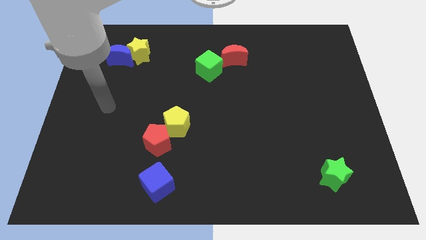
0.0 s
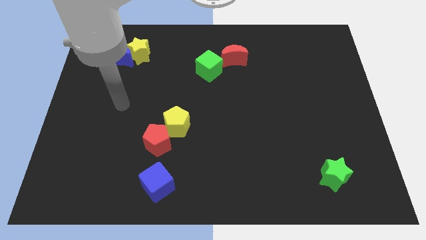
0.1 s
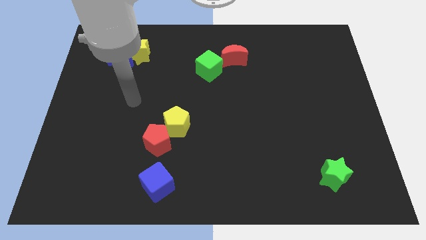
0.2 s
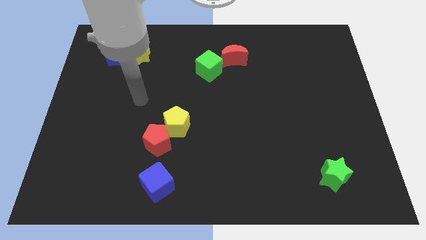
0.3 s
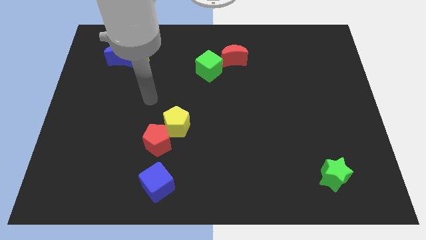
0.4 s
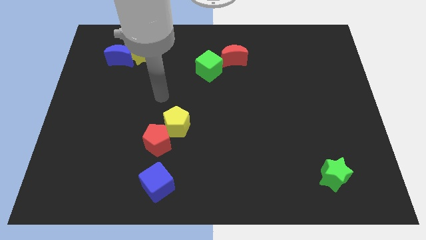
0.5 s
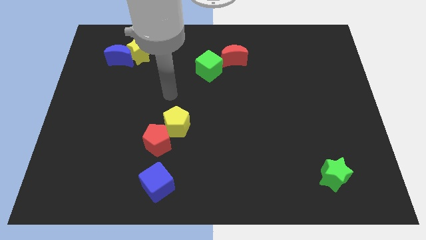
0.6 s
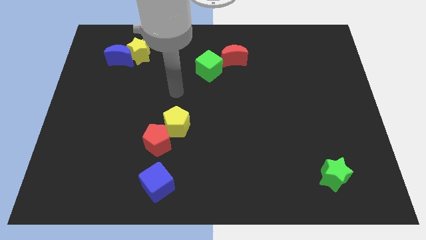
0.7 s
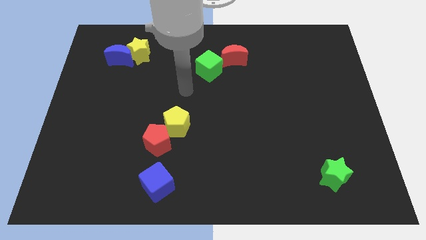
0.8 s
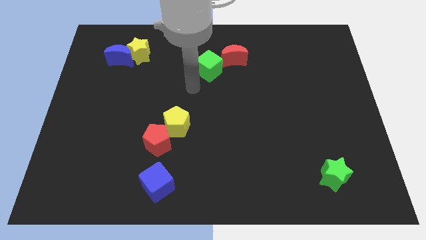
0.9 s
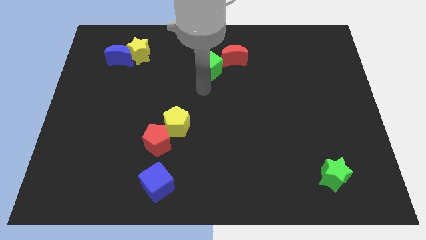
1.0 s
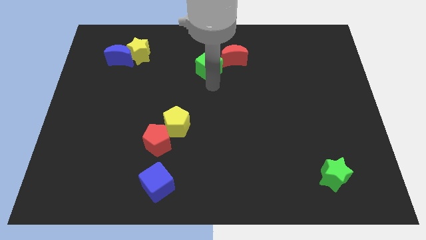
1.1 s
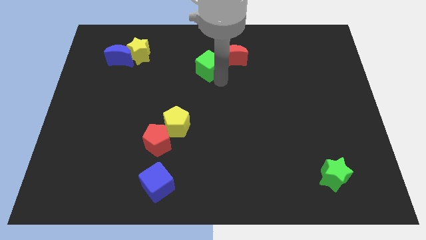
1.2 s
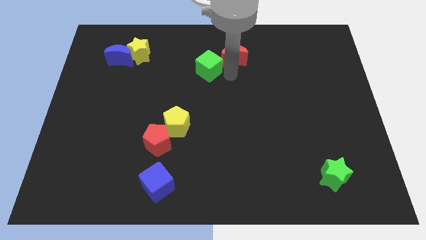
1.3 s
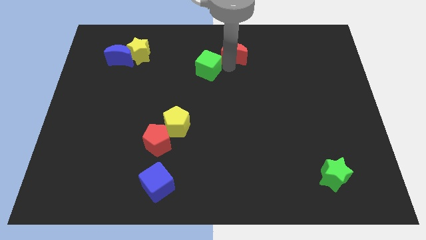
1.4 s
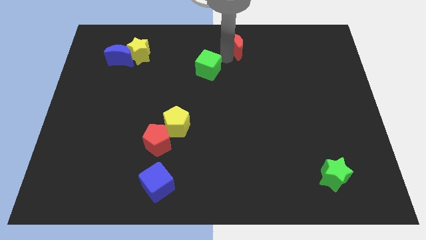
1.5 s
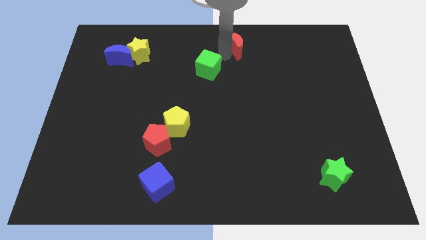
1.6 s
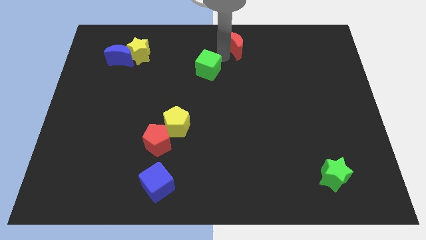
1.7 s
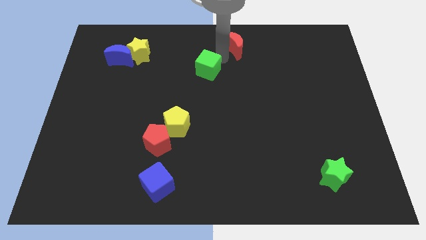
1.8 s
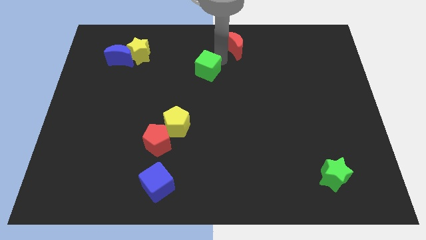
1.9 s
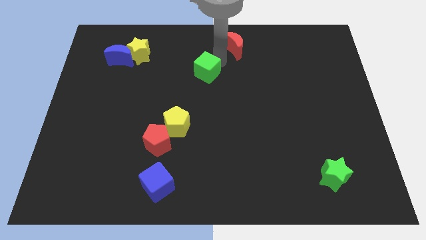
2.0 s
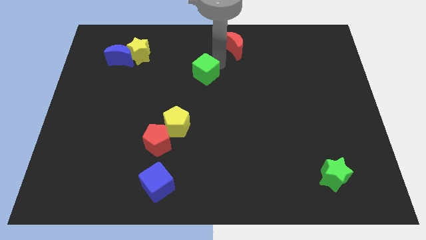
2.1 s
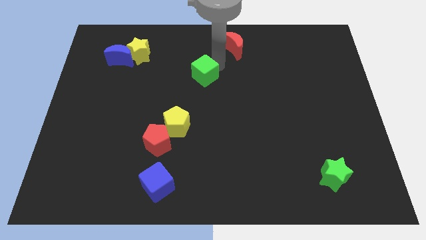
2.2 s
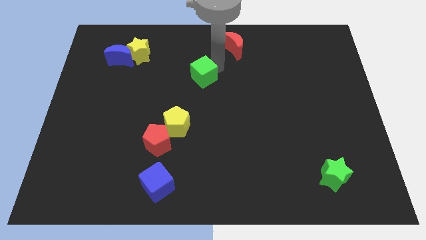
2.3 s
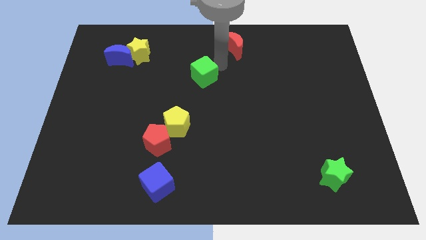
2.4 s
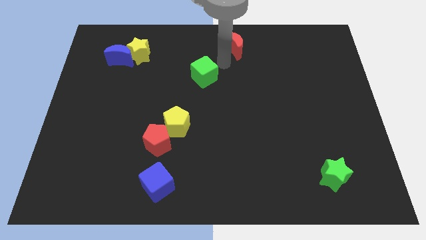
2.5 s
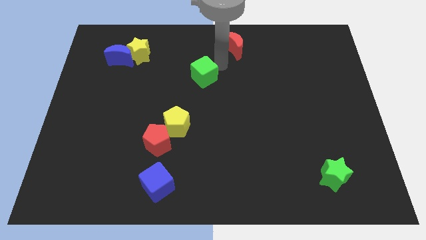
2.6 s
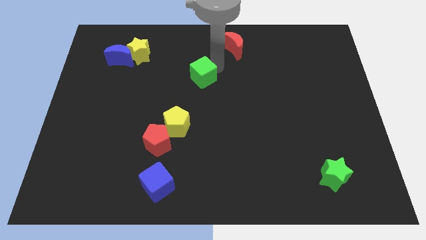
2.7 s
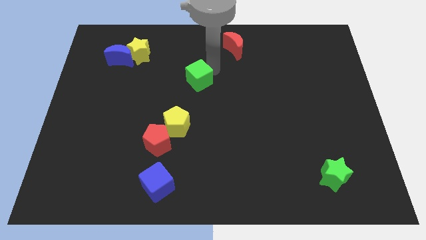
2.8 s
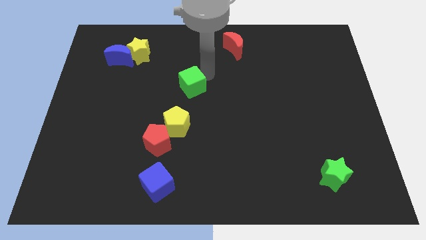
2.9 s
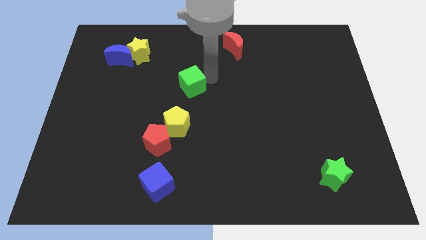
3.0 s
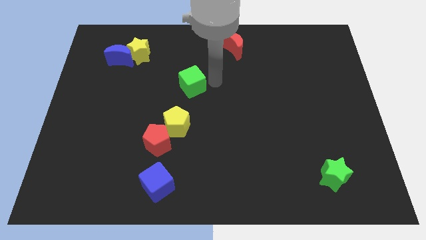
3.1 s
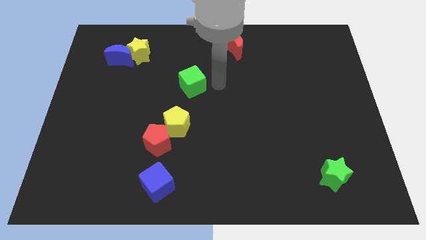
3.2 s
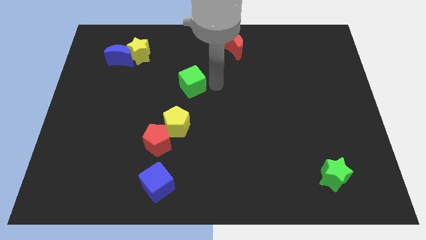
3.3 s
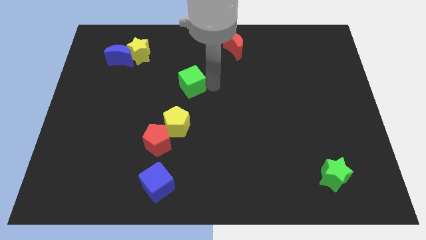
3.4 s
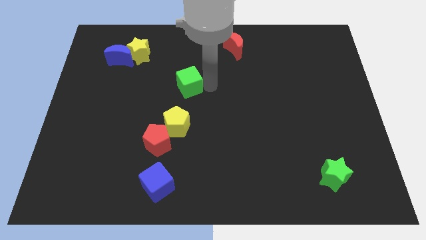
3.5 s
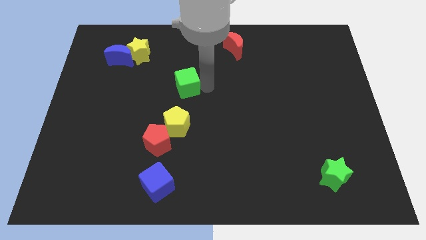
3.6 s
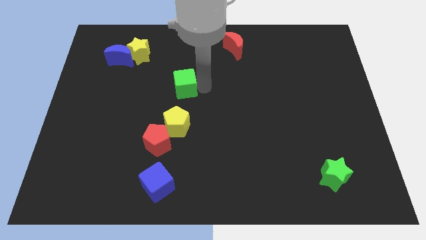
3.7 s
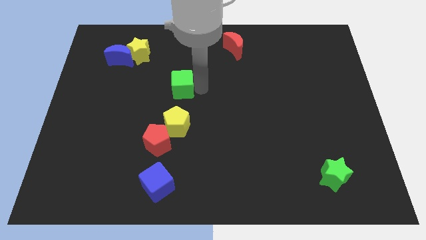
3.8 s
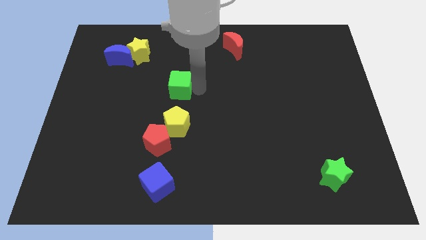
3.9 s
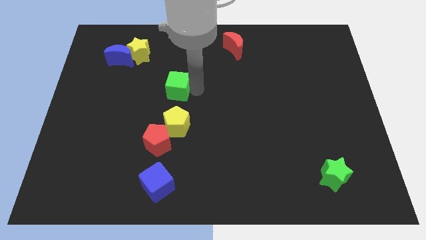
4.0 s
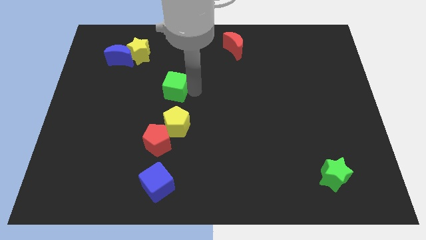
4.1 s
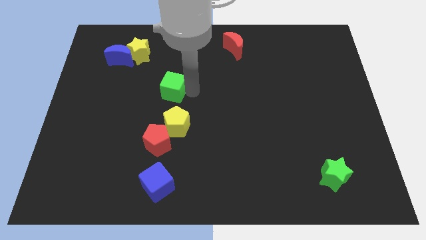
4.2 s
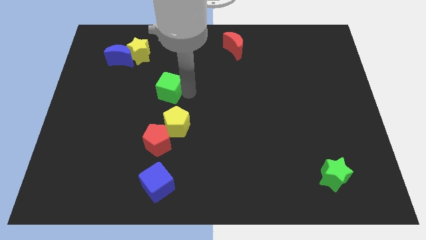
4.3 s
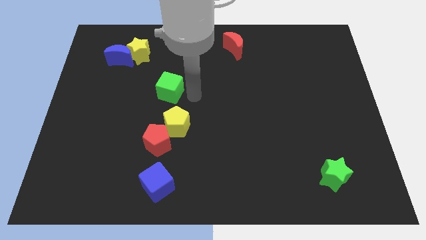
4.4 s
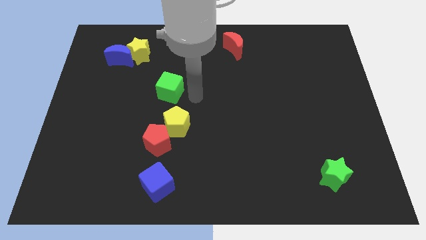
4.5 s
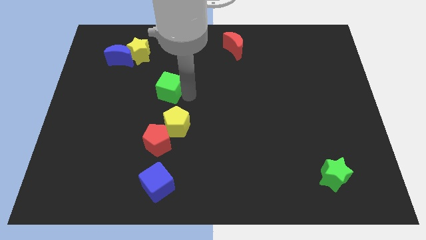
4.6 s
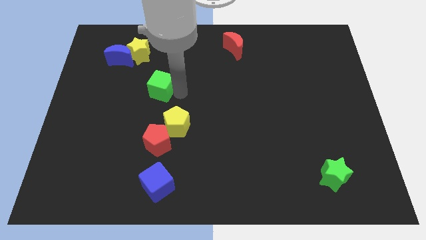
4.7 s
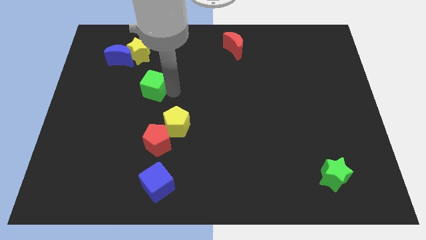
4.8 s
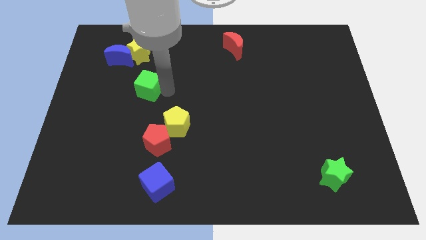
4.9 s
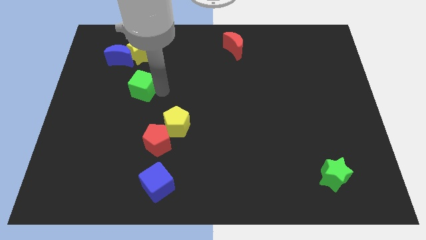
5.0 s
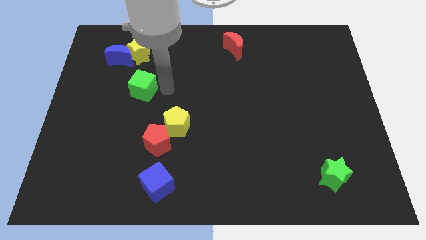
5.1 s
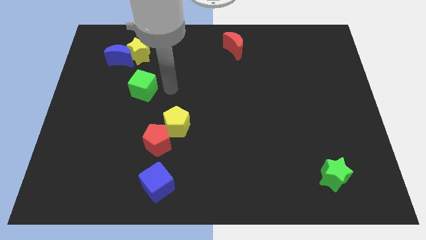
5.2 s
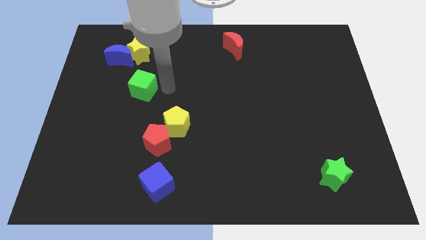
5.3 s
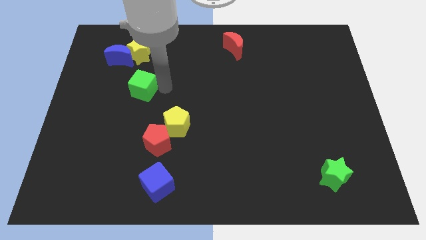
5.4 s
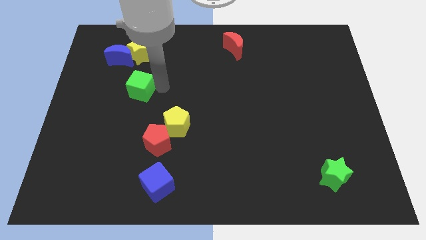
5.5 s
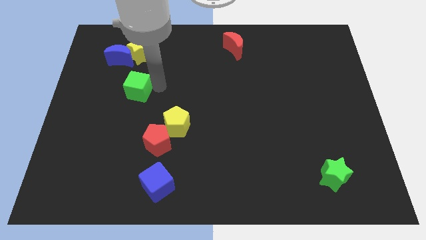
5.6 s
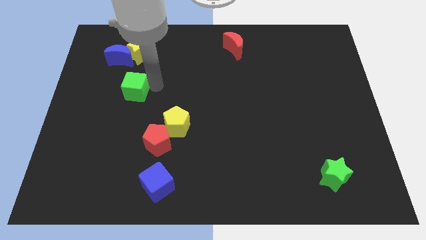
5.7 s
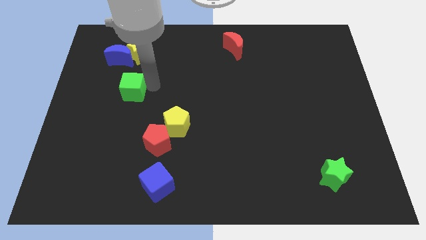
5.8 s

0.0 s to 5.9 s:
move the green cube below the blue moon

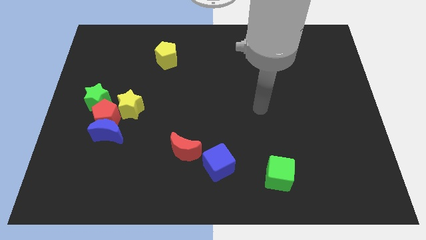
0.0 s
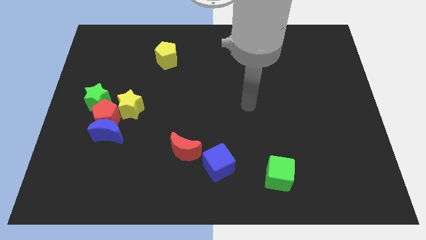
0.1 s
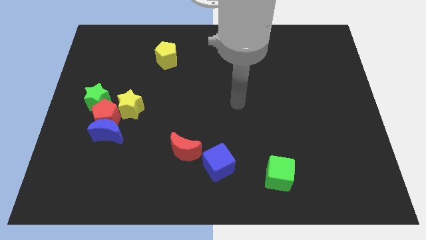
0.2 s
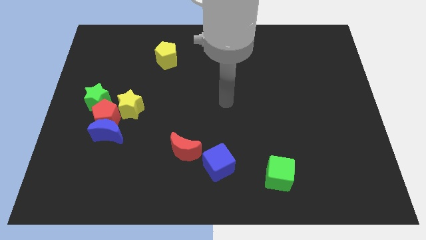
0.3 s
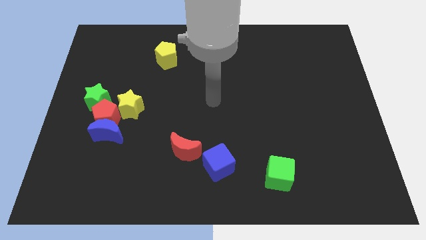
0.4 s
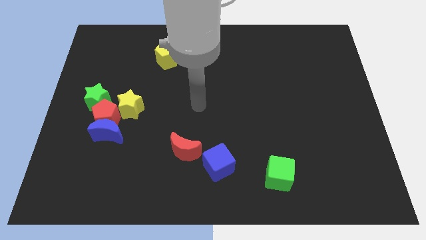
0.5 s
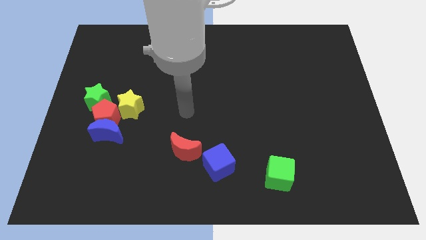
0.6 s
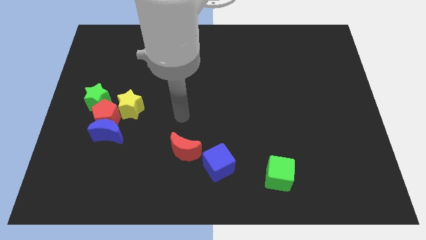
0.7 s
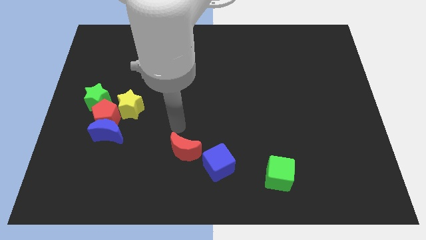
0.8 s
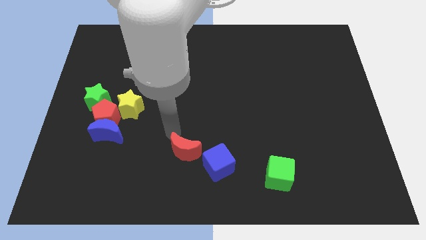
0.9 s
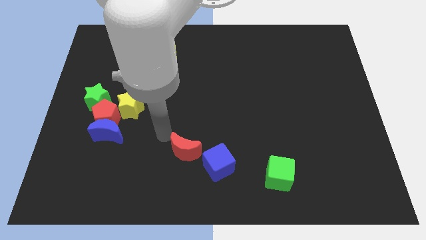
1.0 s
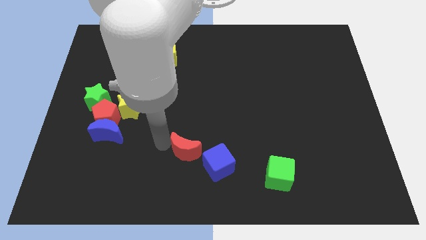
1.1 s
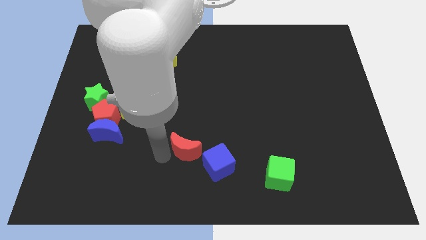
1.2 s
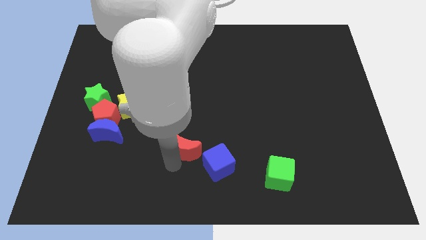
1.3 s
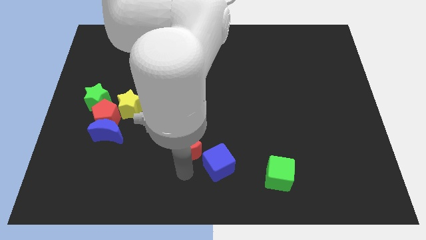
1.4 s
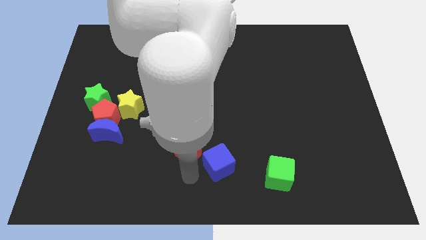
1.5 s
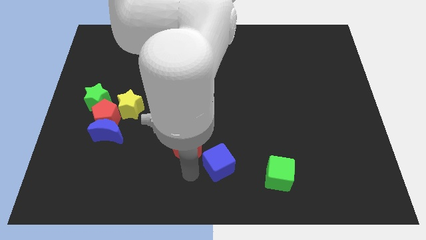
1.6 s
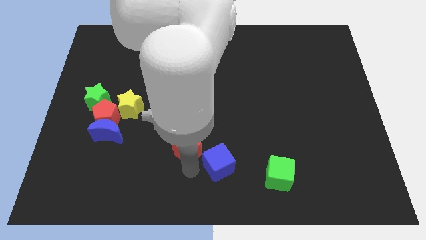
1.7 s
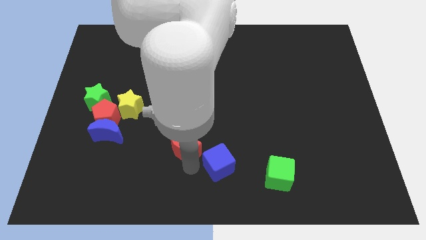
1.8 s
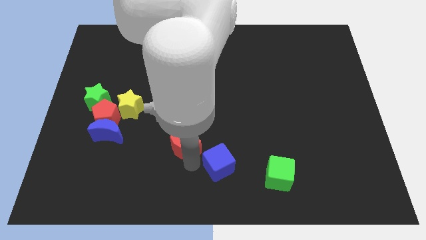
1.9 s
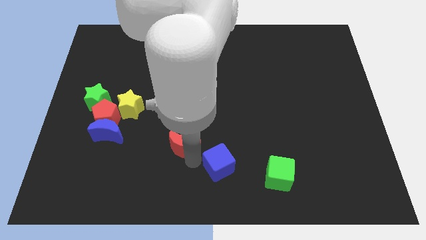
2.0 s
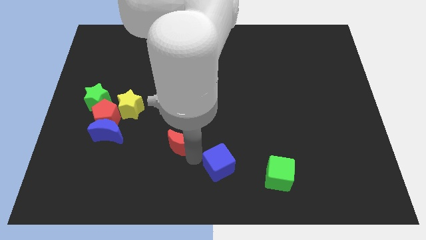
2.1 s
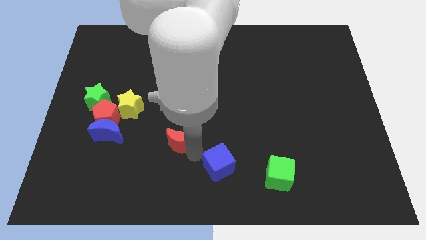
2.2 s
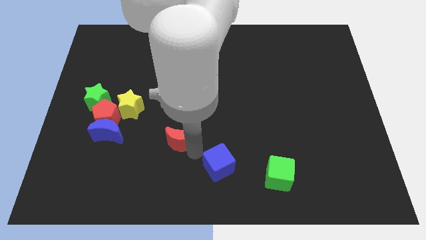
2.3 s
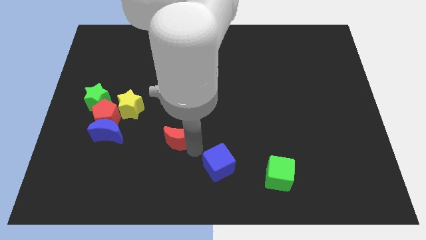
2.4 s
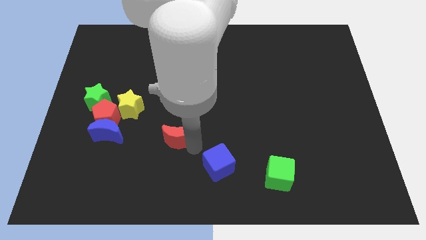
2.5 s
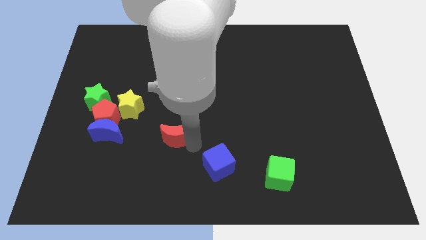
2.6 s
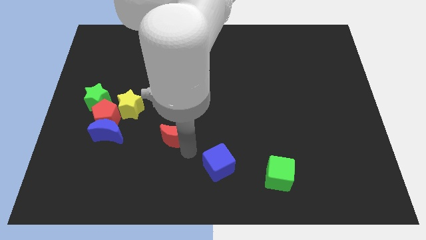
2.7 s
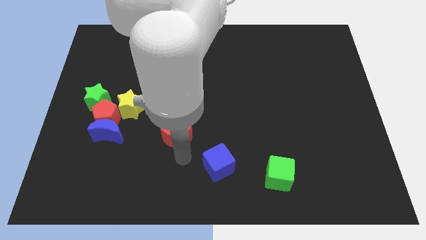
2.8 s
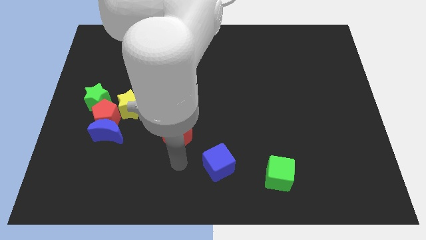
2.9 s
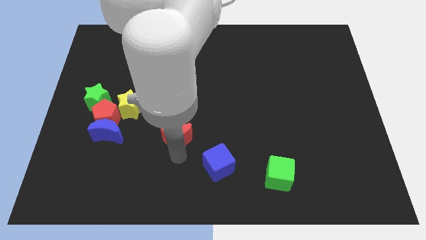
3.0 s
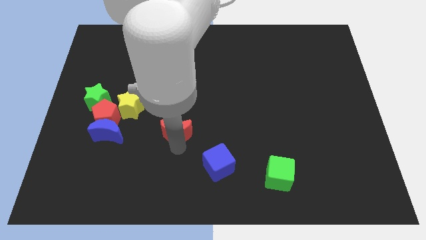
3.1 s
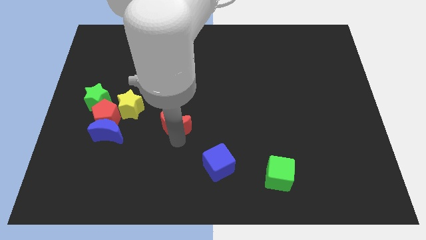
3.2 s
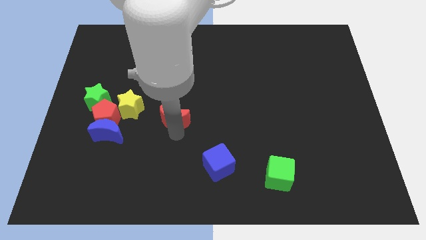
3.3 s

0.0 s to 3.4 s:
slide the red moon to the right side of the yellow star
